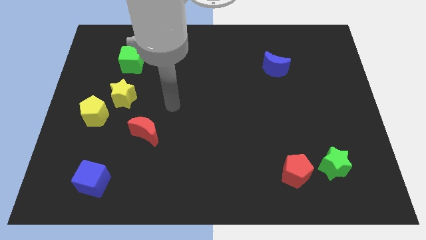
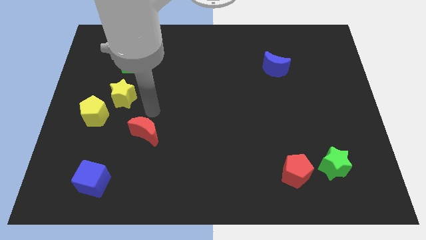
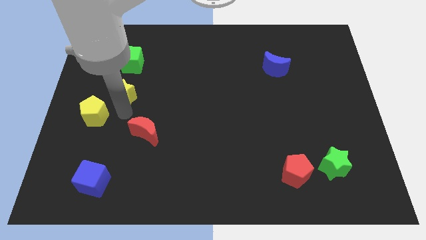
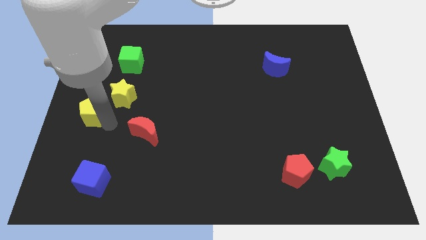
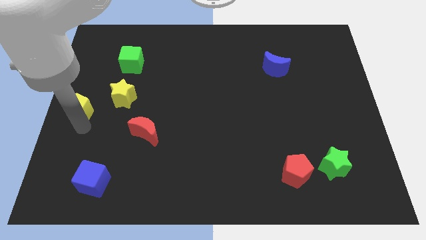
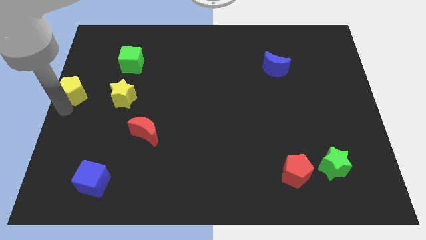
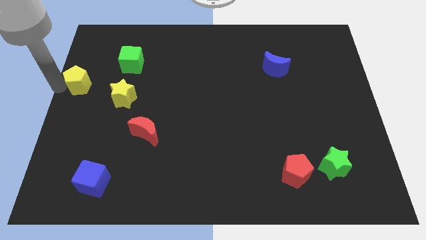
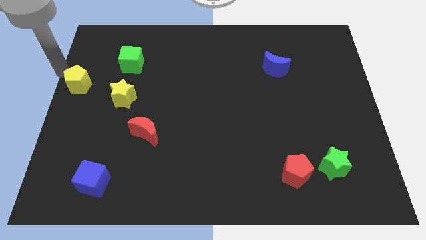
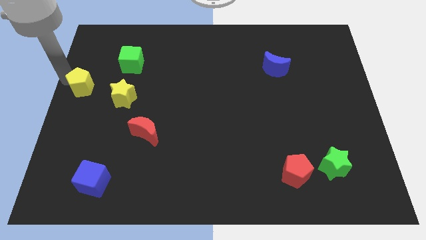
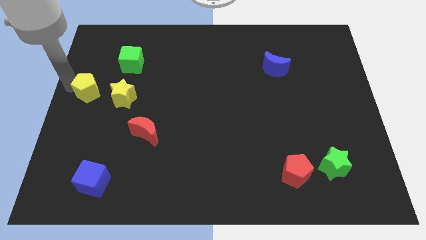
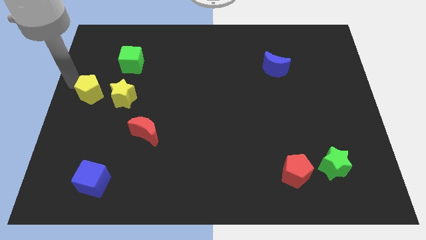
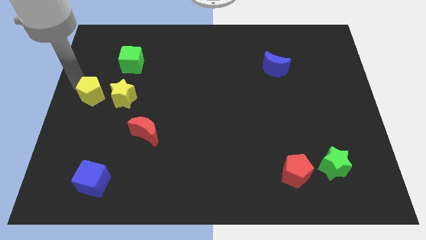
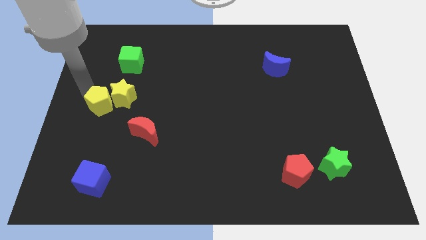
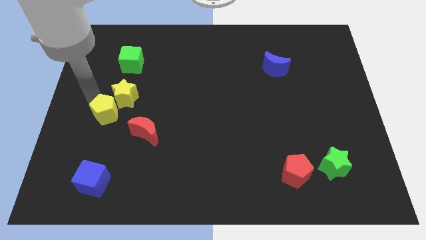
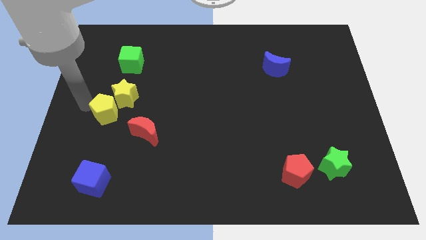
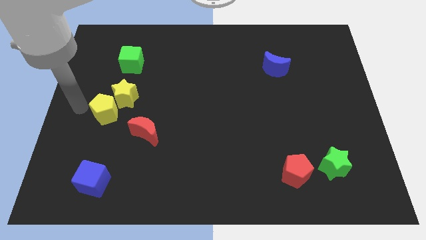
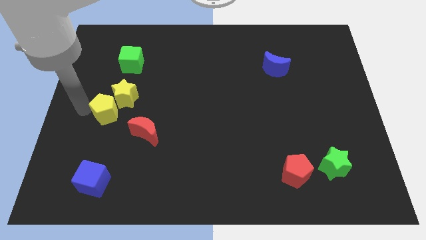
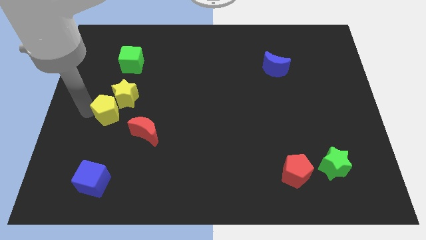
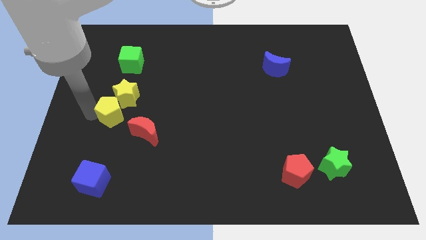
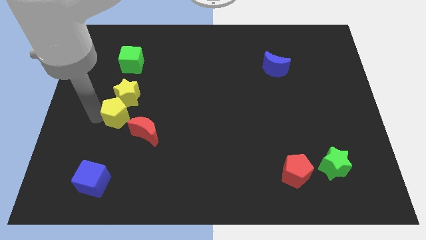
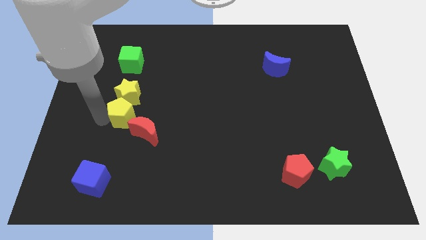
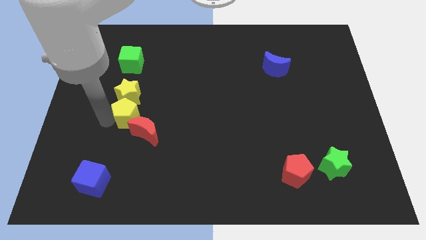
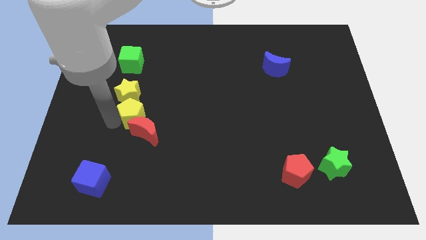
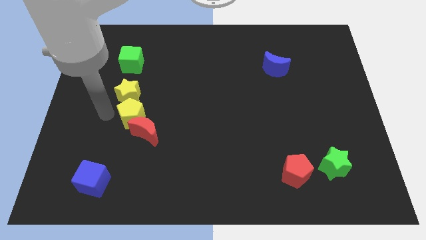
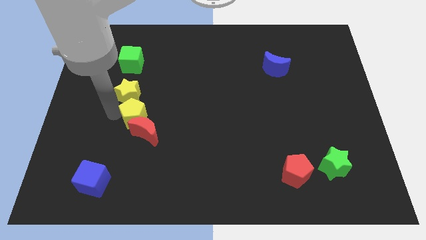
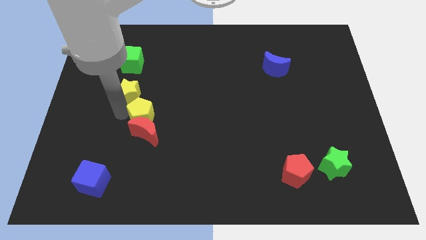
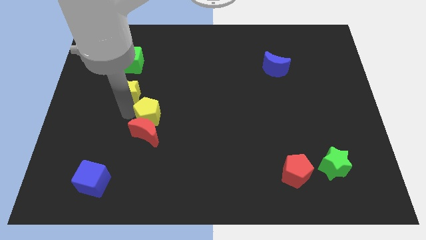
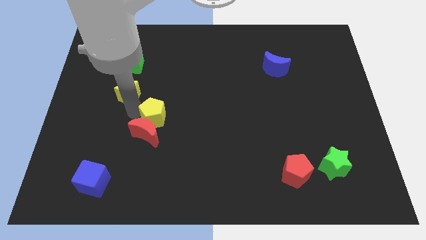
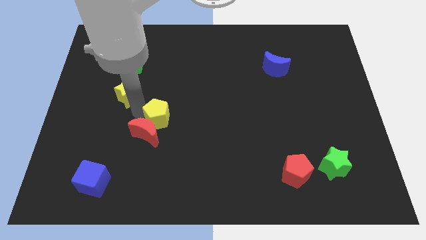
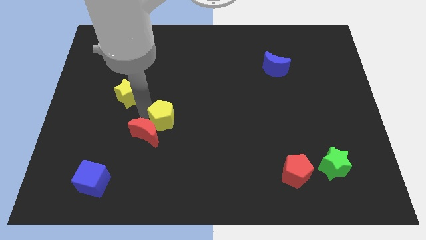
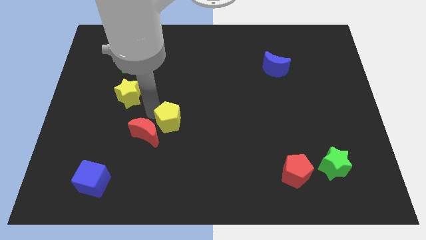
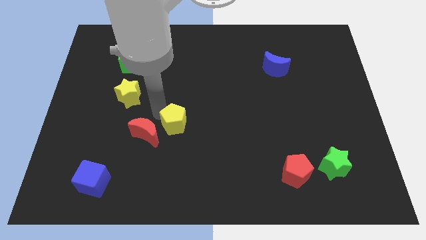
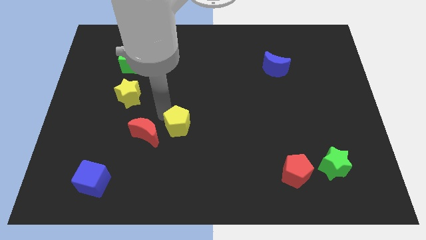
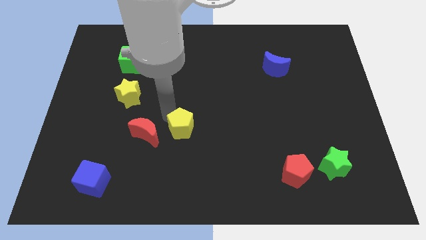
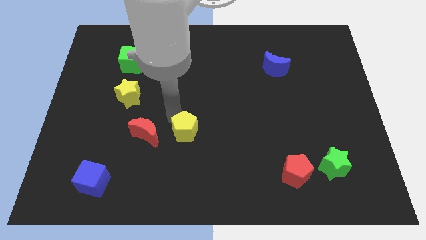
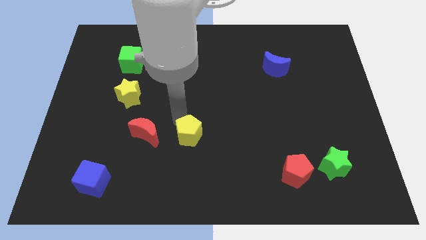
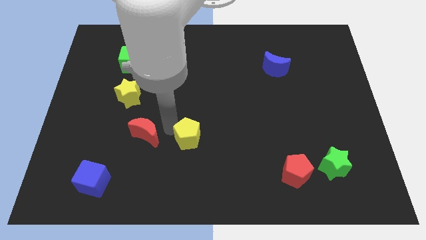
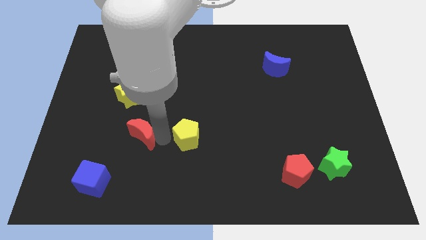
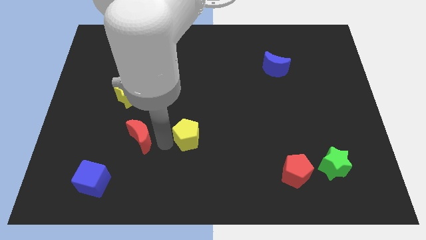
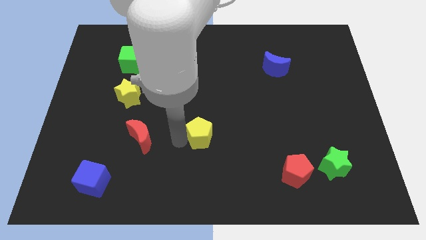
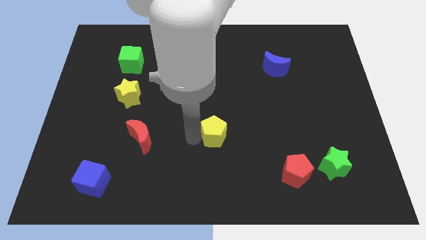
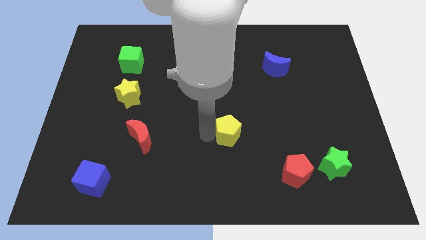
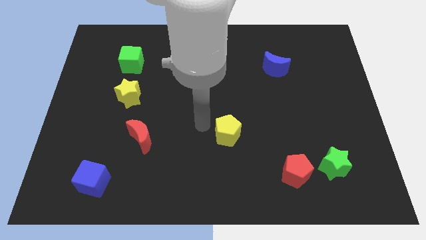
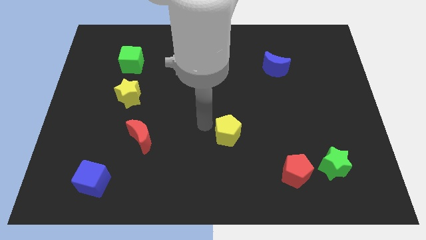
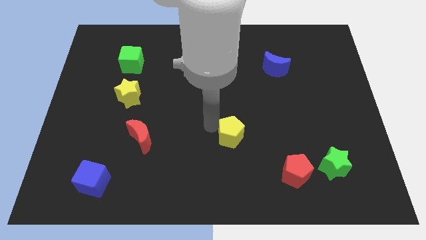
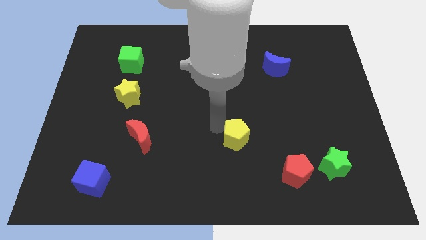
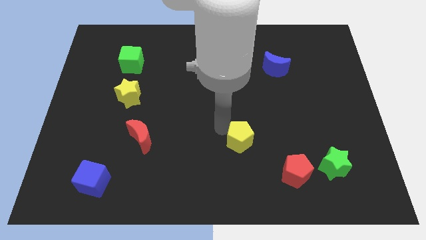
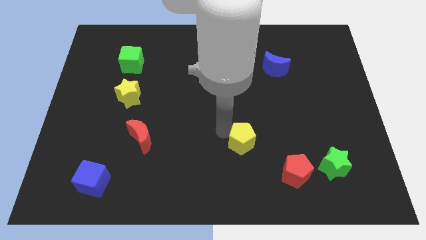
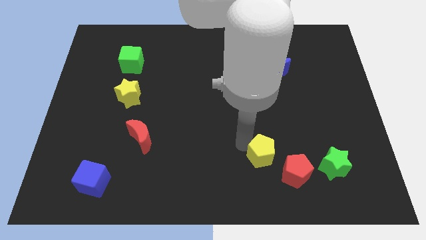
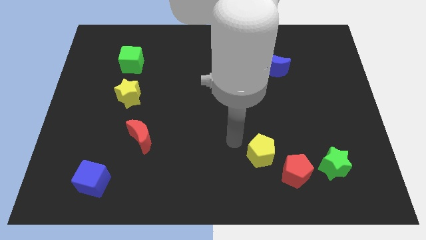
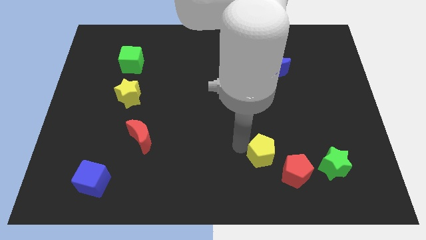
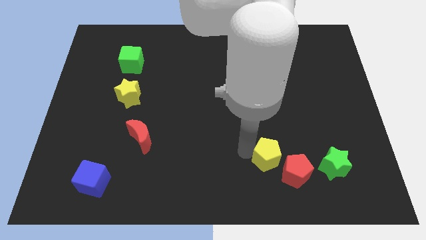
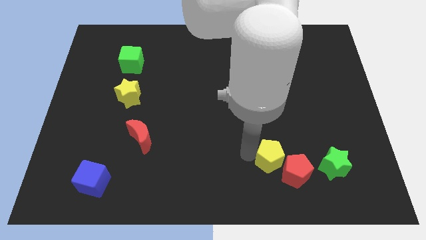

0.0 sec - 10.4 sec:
push the yellow pentagon next to the red pentagon

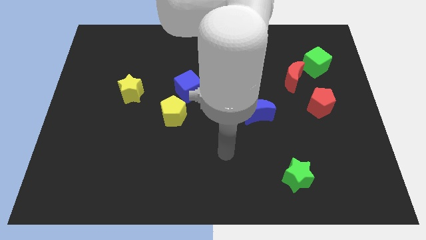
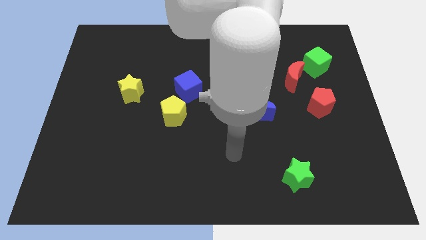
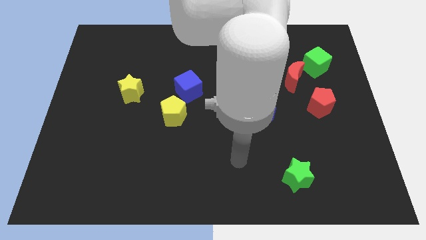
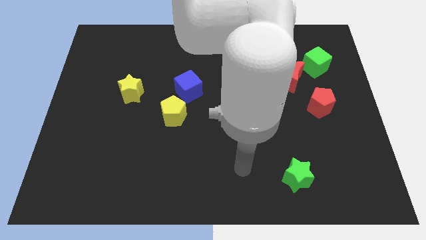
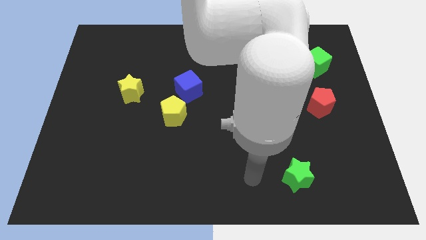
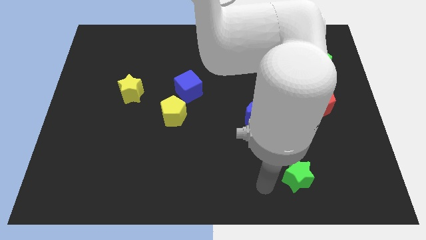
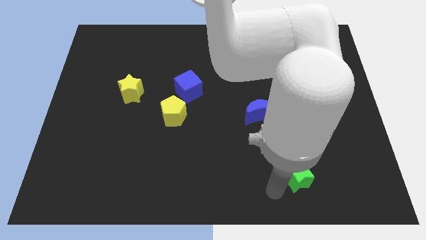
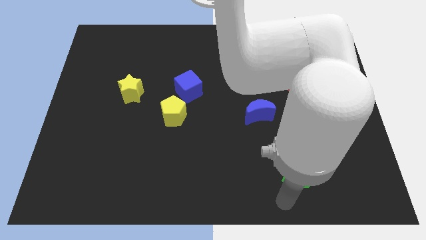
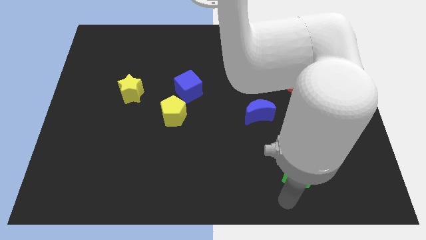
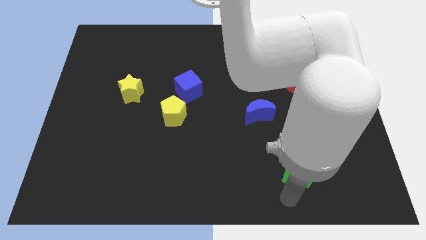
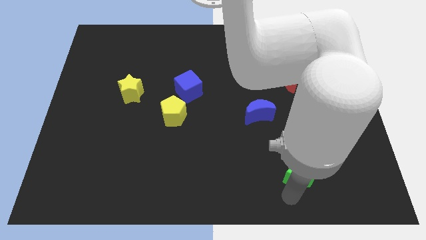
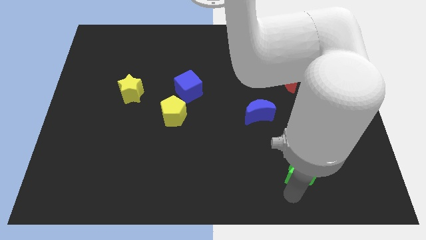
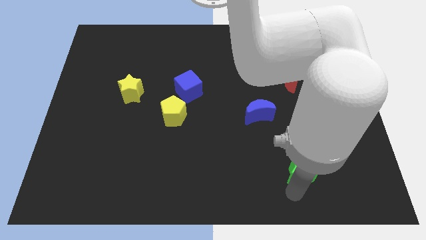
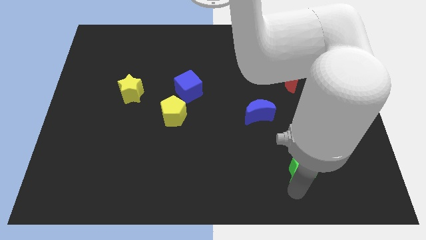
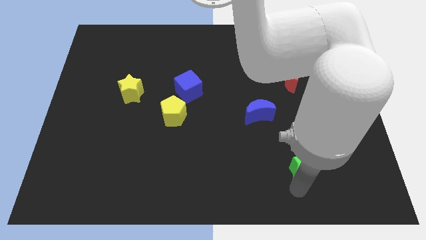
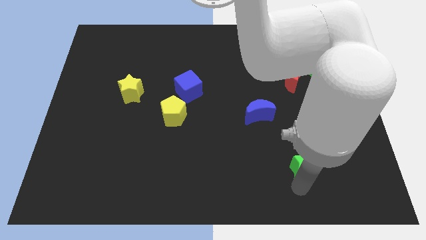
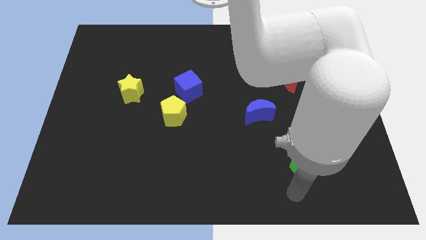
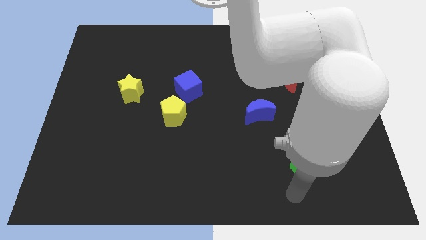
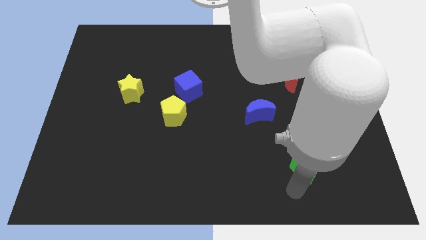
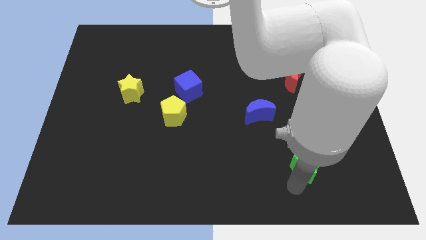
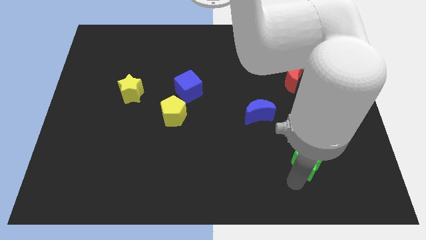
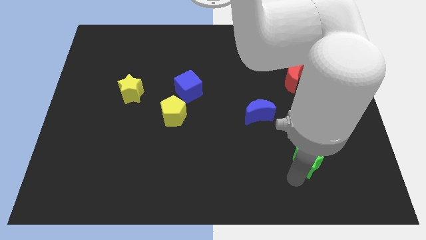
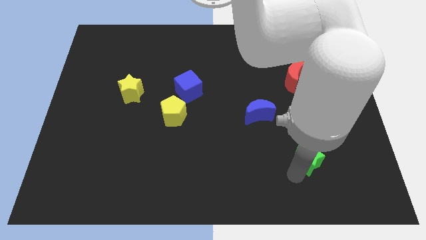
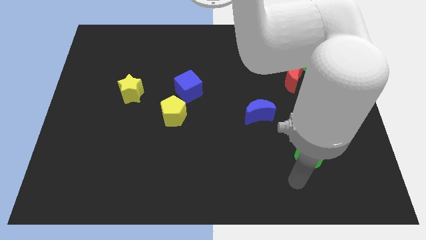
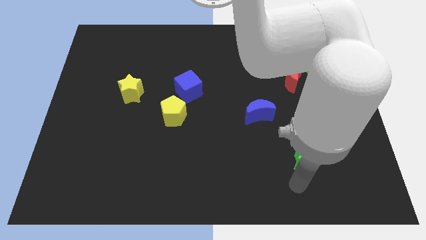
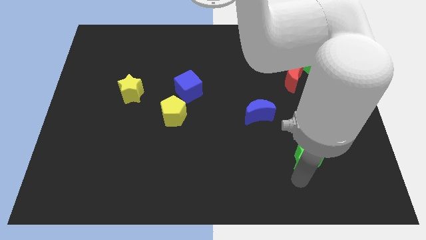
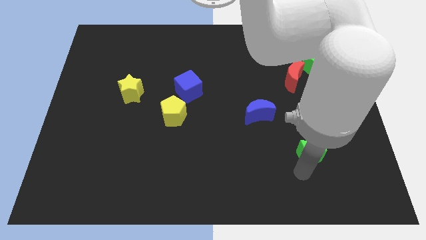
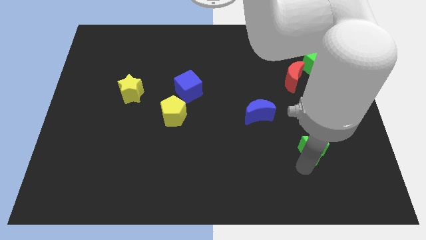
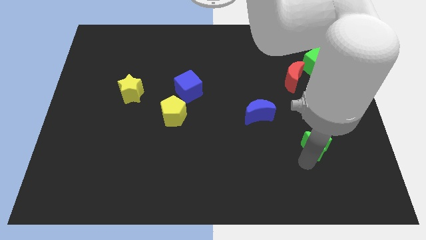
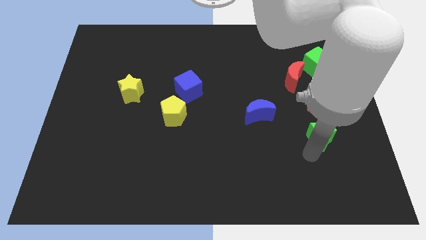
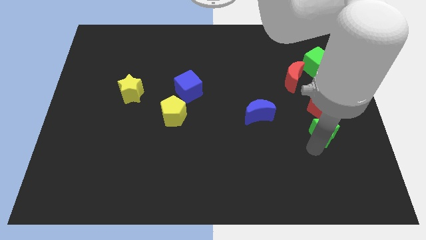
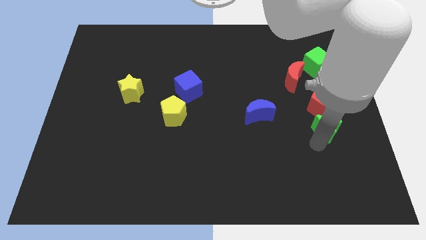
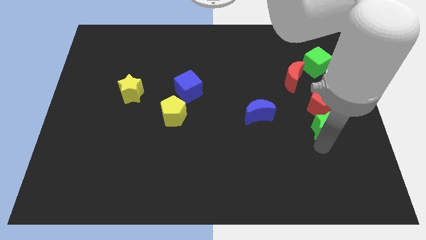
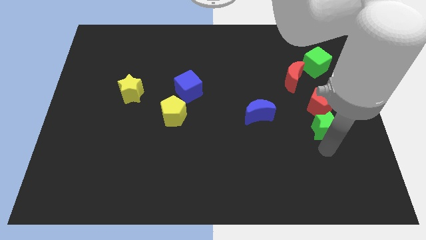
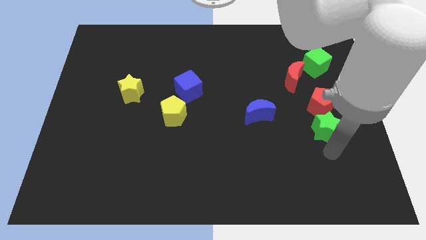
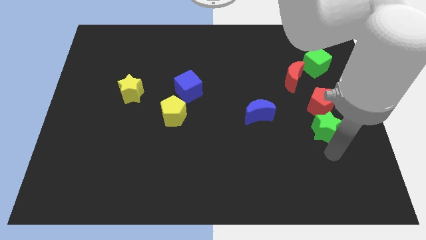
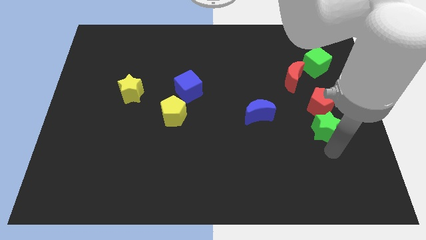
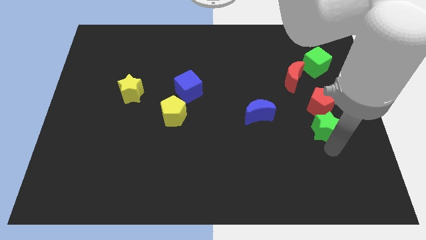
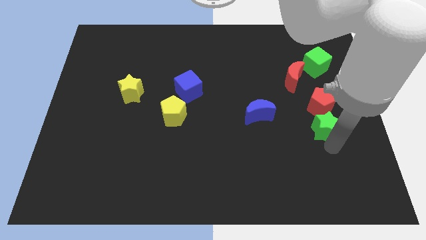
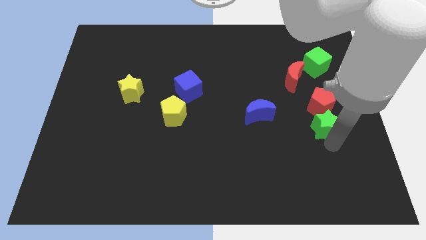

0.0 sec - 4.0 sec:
put the green star to the red pentagon
